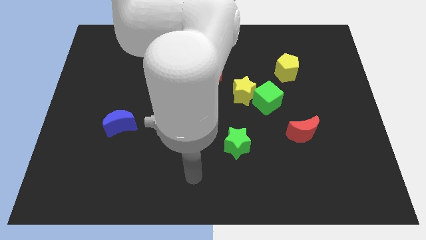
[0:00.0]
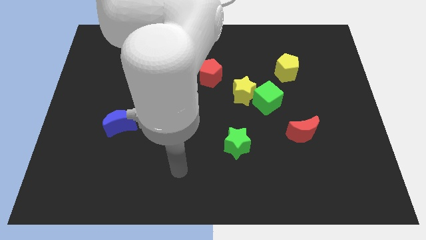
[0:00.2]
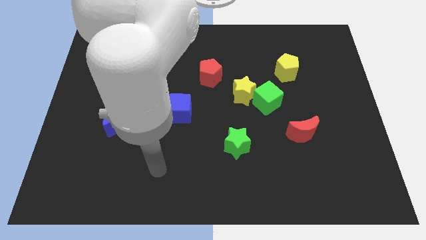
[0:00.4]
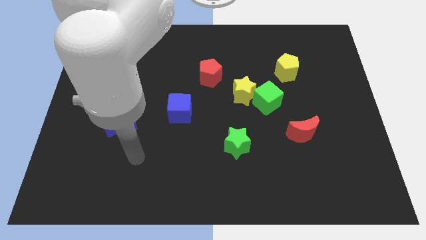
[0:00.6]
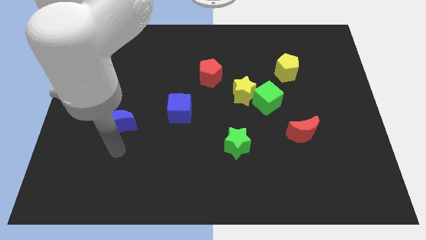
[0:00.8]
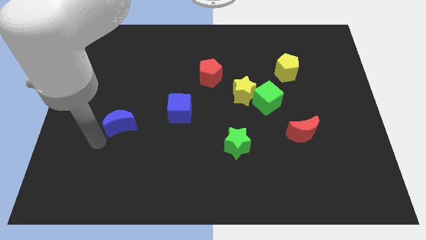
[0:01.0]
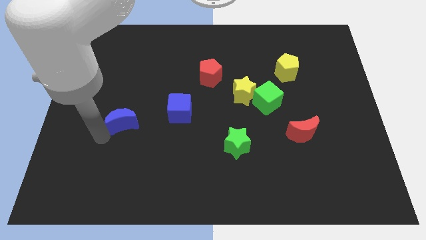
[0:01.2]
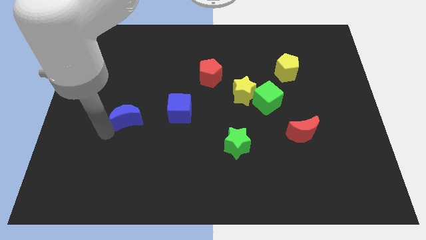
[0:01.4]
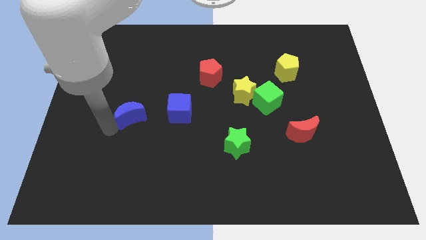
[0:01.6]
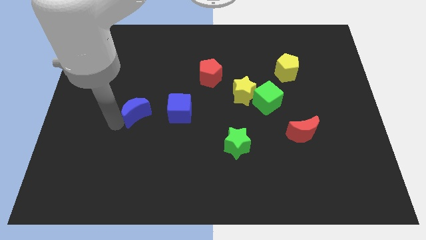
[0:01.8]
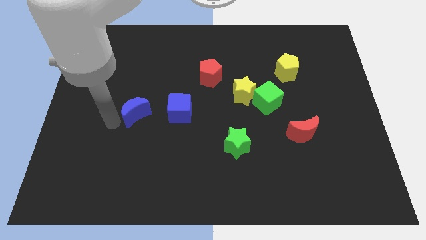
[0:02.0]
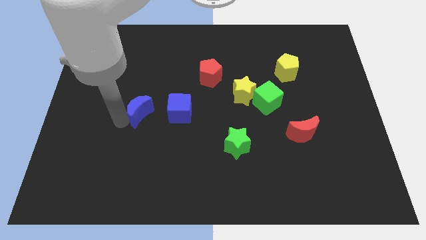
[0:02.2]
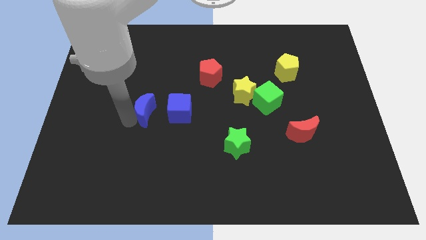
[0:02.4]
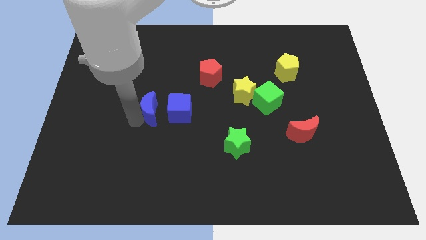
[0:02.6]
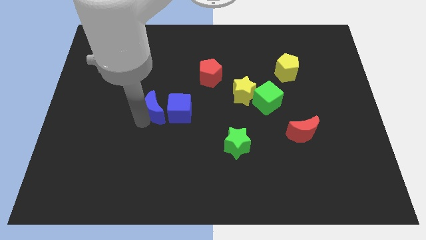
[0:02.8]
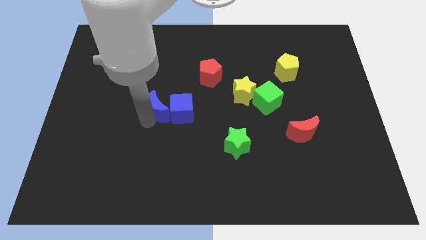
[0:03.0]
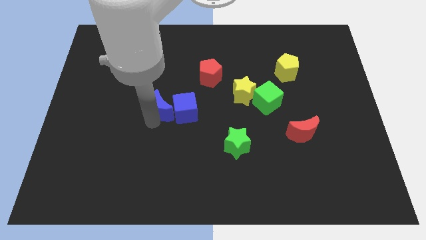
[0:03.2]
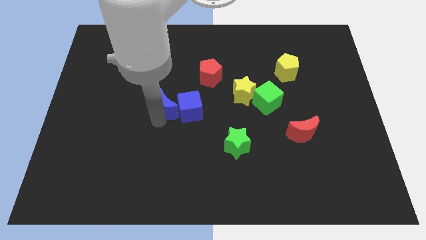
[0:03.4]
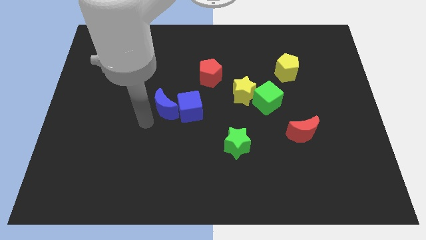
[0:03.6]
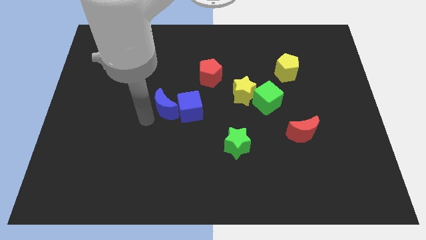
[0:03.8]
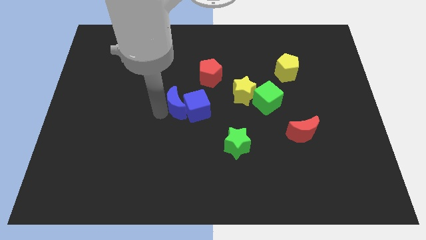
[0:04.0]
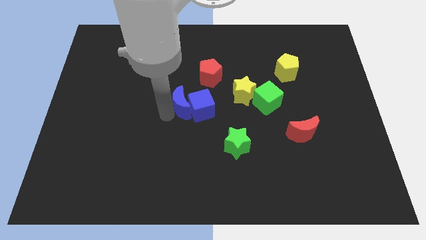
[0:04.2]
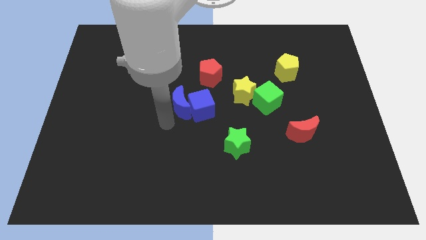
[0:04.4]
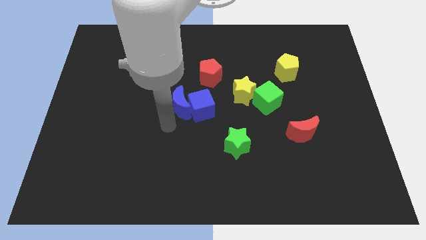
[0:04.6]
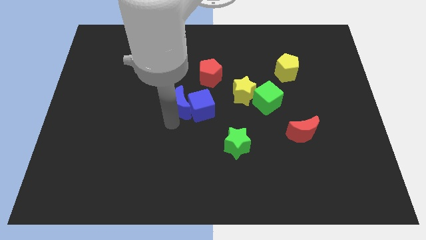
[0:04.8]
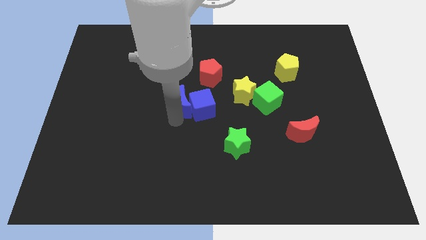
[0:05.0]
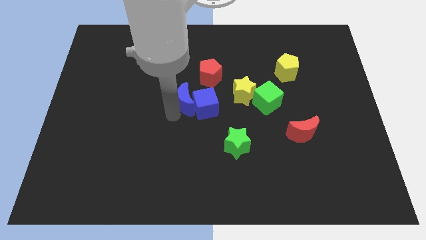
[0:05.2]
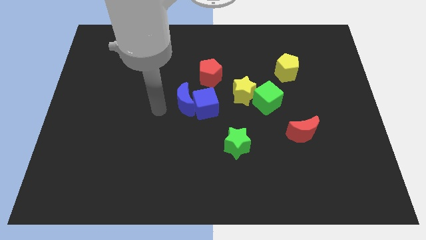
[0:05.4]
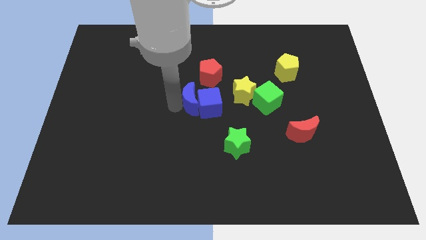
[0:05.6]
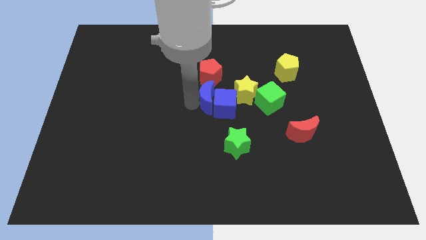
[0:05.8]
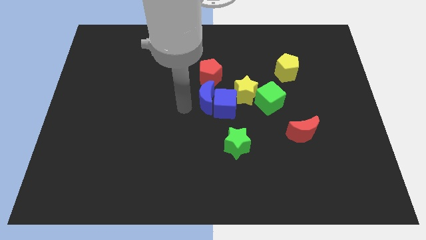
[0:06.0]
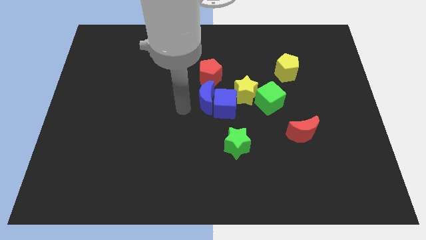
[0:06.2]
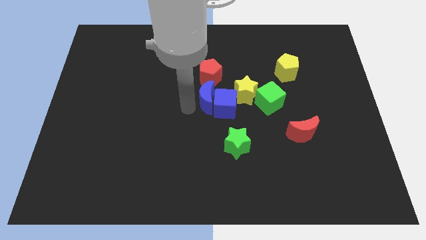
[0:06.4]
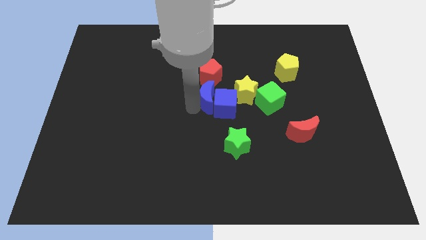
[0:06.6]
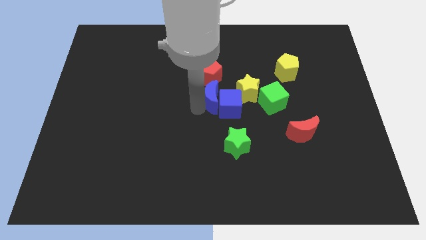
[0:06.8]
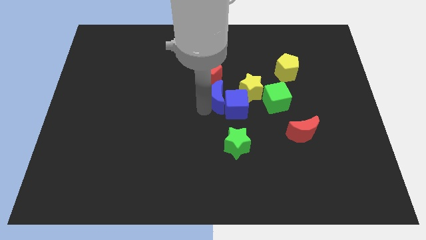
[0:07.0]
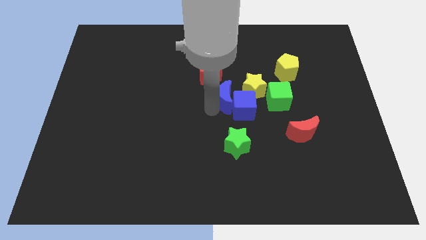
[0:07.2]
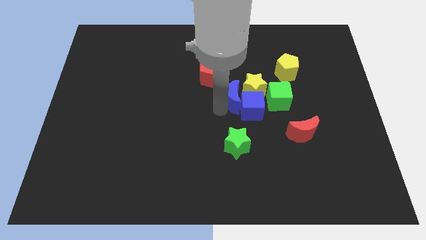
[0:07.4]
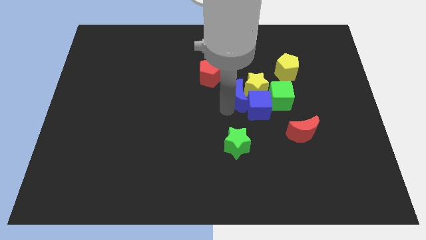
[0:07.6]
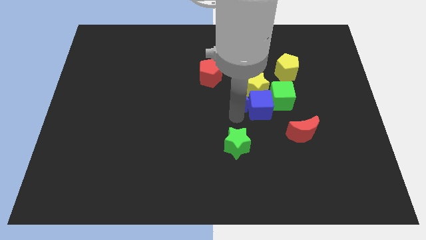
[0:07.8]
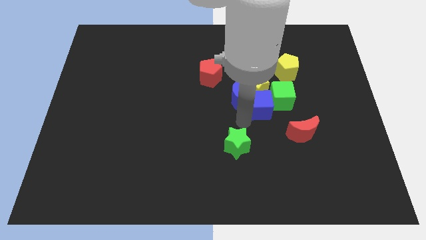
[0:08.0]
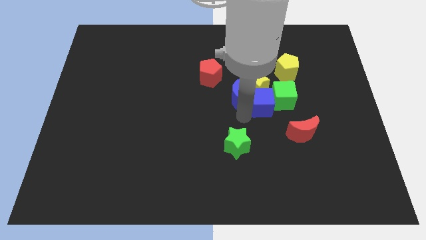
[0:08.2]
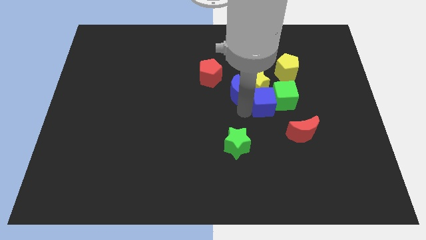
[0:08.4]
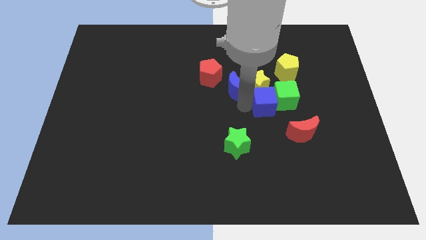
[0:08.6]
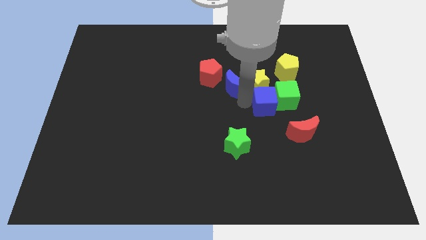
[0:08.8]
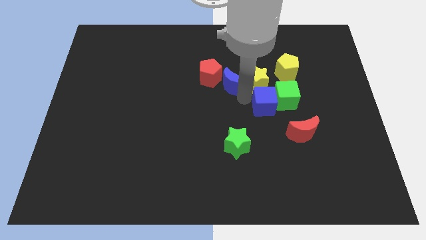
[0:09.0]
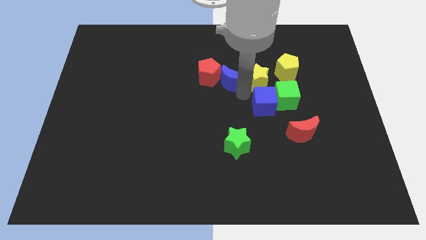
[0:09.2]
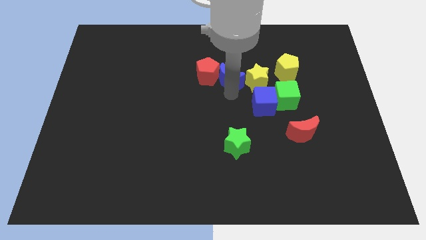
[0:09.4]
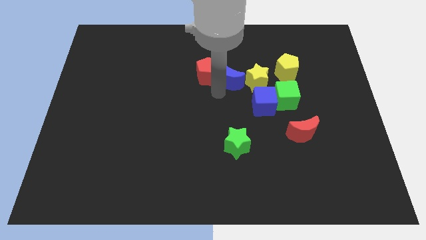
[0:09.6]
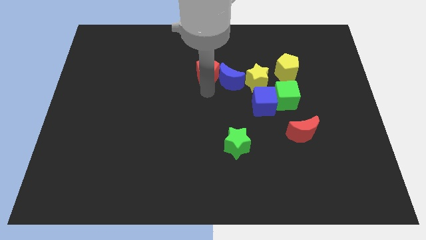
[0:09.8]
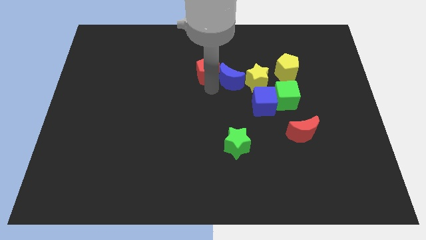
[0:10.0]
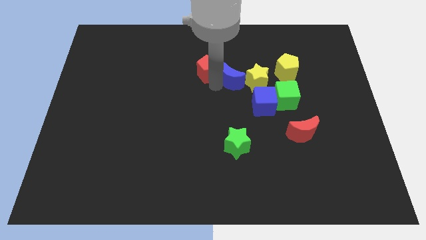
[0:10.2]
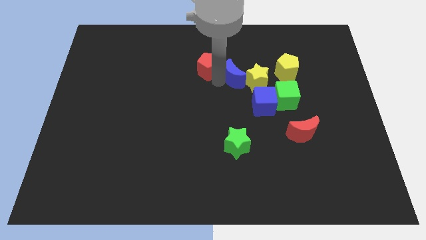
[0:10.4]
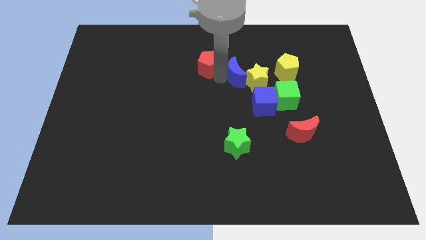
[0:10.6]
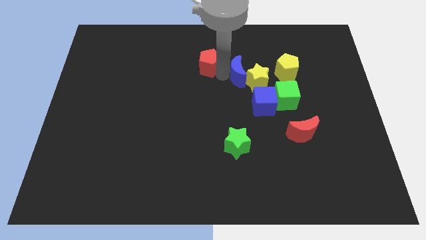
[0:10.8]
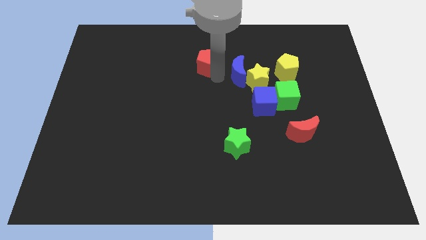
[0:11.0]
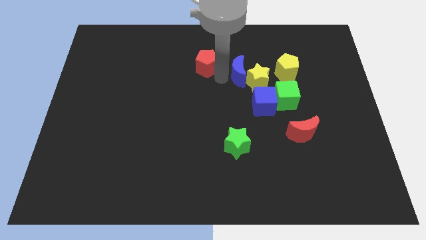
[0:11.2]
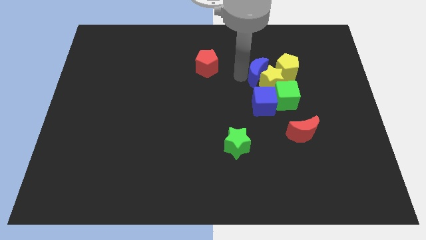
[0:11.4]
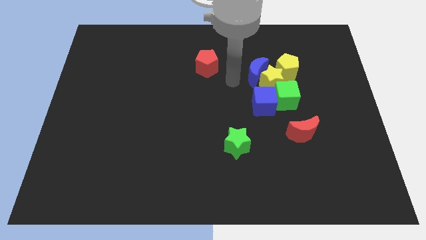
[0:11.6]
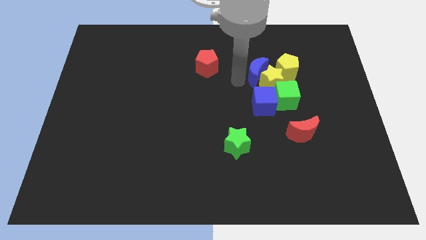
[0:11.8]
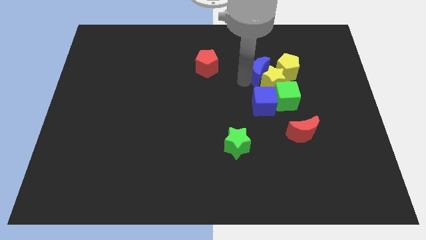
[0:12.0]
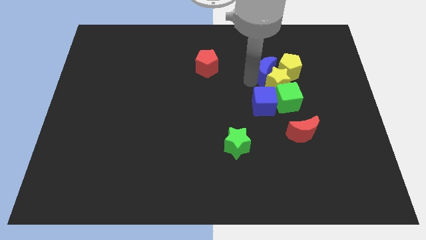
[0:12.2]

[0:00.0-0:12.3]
put the blue moon above the green cube

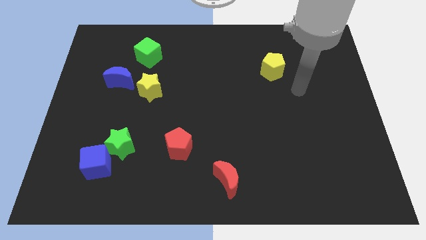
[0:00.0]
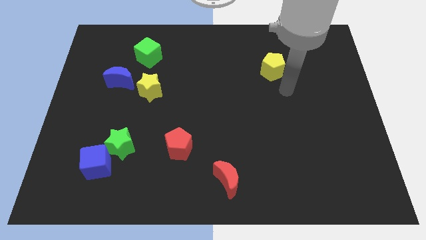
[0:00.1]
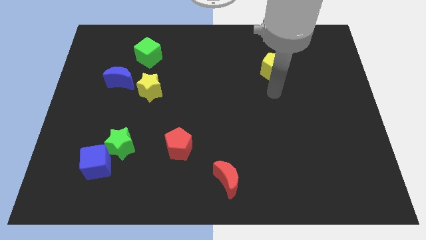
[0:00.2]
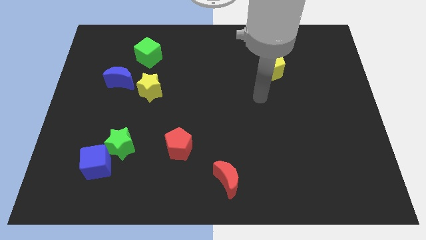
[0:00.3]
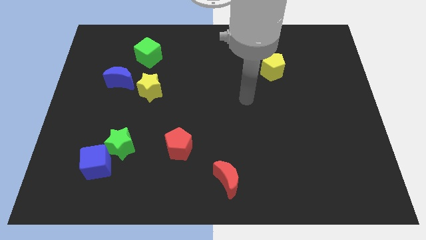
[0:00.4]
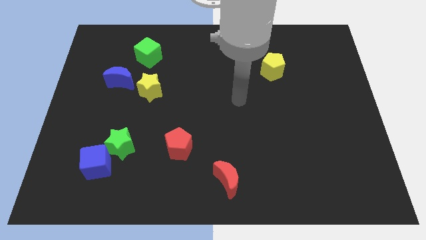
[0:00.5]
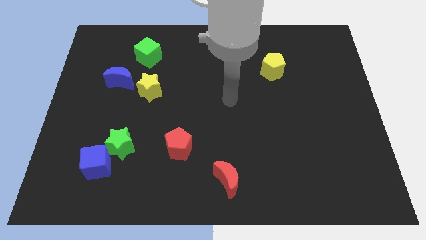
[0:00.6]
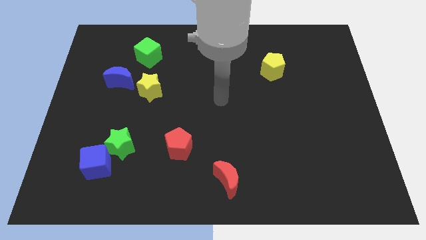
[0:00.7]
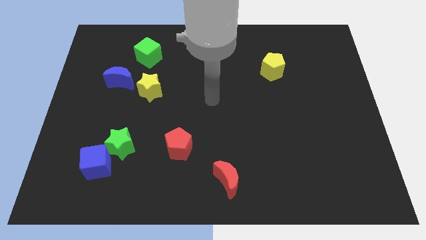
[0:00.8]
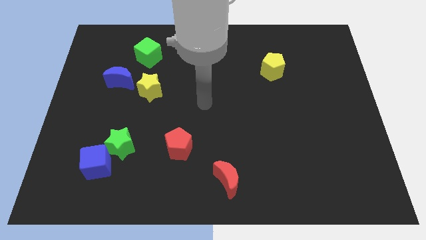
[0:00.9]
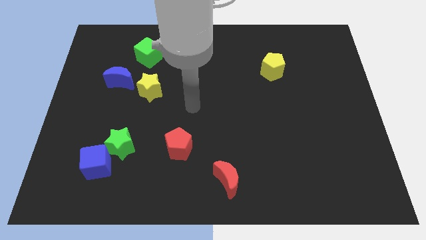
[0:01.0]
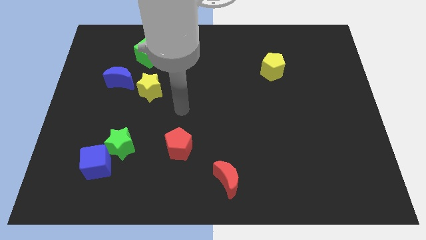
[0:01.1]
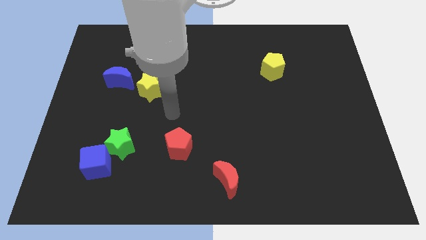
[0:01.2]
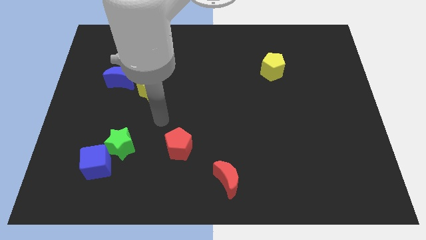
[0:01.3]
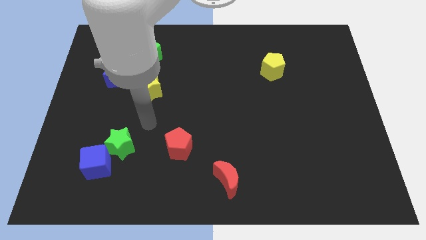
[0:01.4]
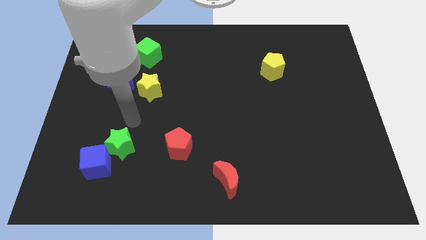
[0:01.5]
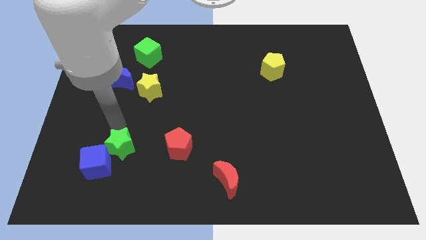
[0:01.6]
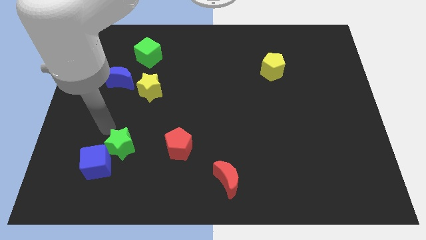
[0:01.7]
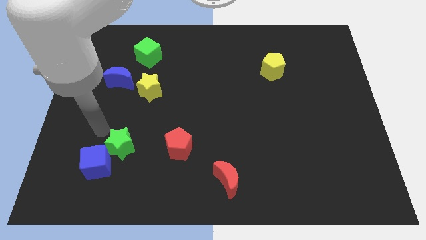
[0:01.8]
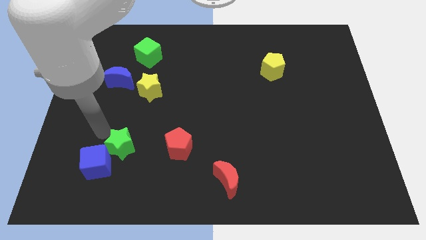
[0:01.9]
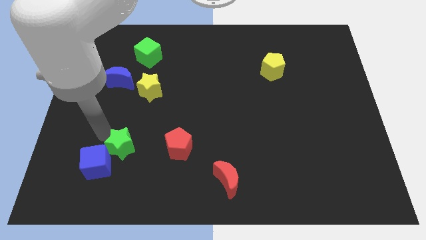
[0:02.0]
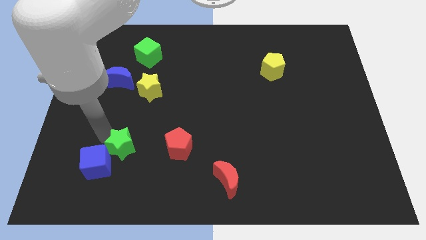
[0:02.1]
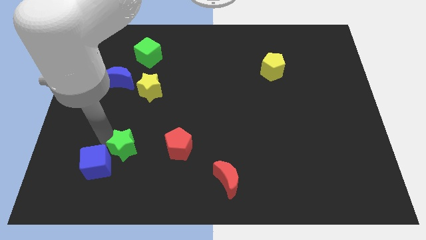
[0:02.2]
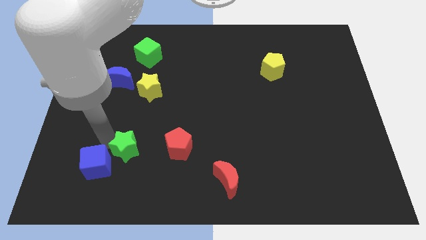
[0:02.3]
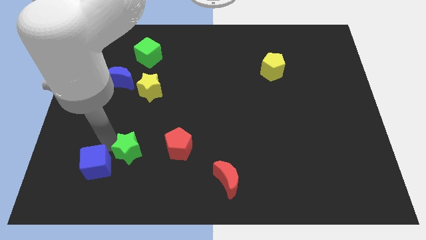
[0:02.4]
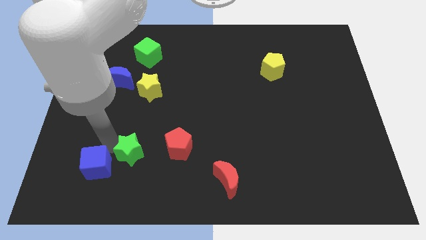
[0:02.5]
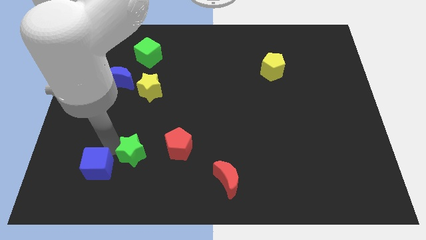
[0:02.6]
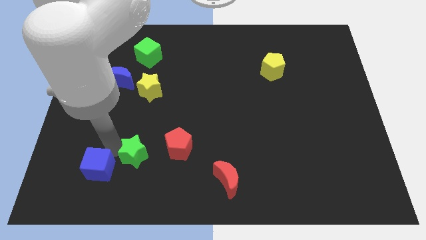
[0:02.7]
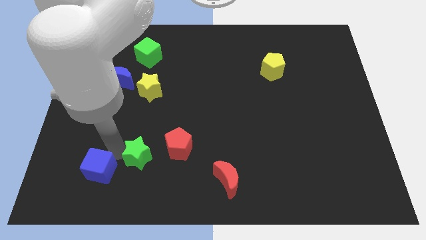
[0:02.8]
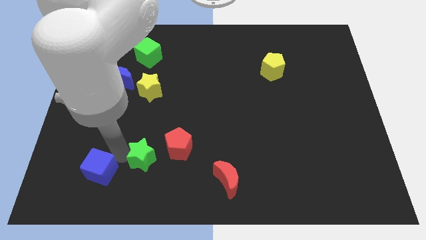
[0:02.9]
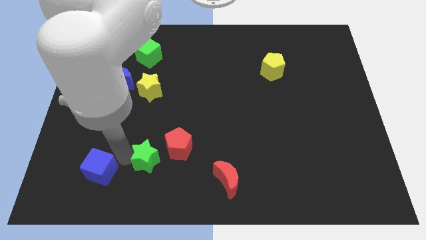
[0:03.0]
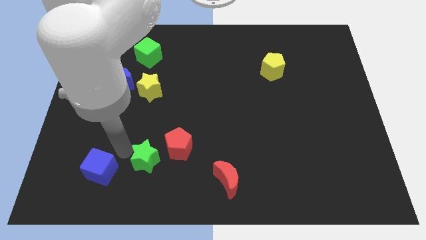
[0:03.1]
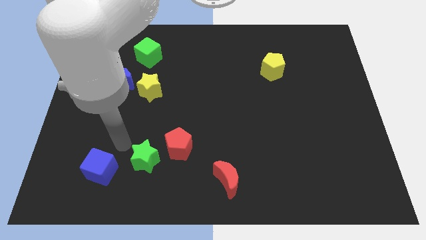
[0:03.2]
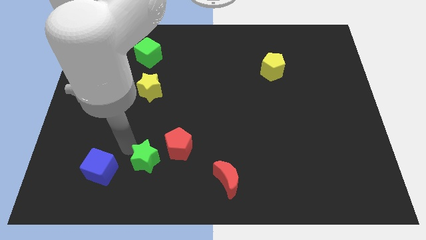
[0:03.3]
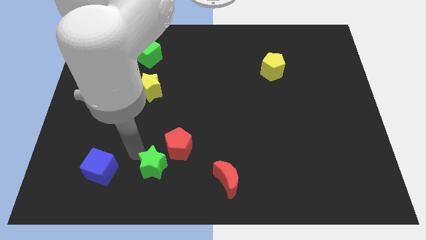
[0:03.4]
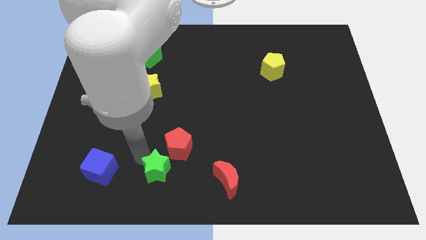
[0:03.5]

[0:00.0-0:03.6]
put the green star to the left side of the red moon
